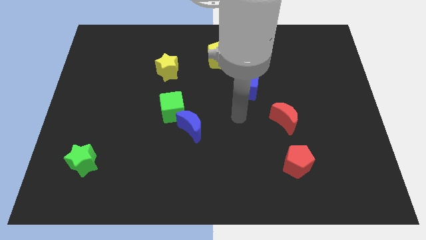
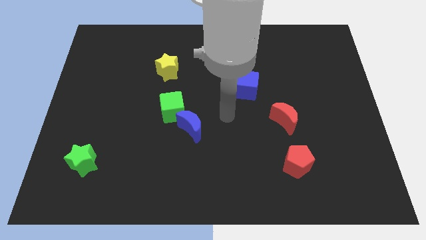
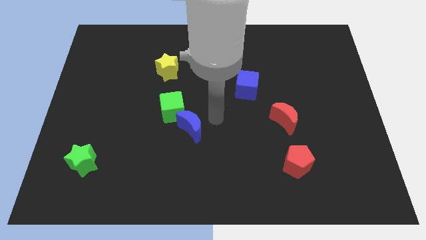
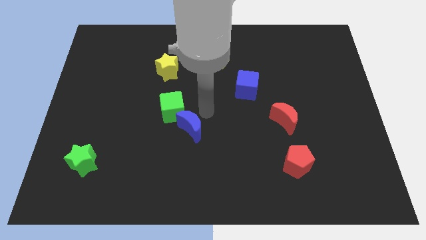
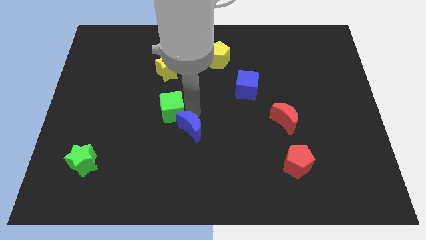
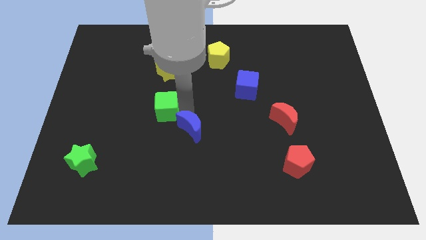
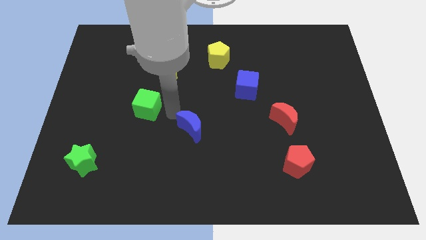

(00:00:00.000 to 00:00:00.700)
move the blue moon away from the green cube

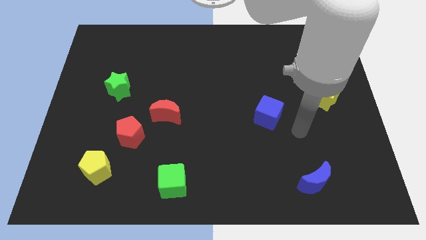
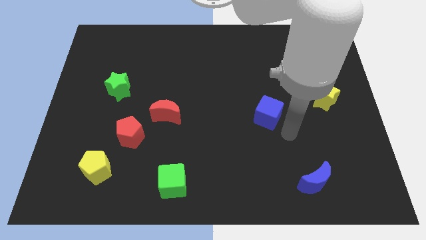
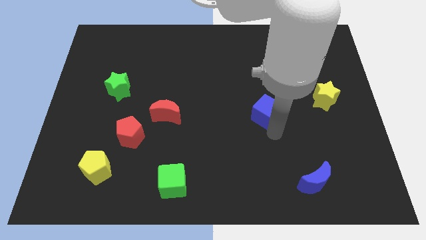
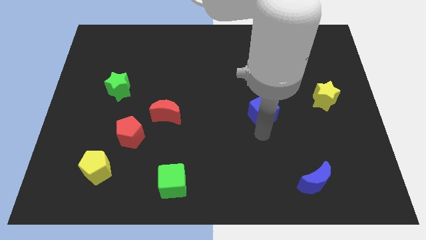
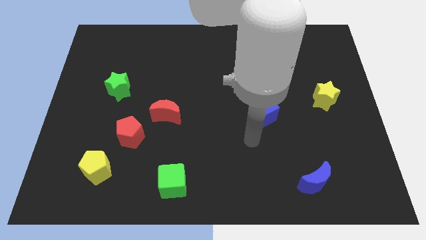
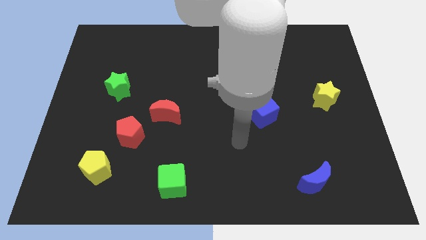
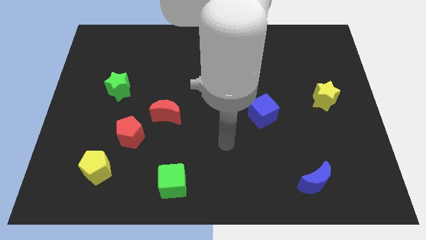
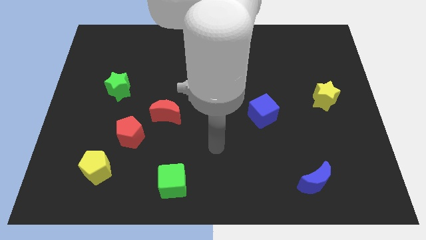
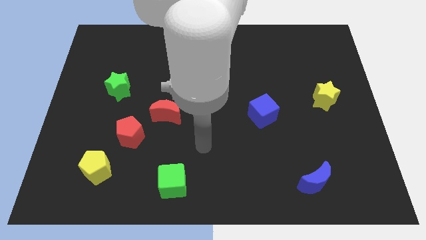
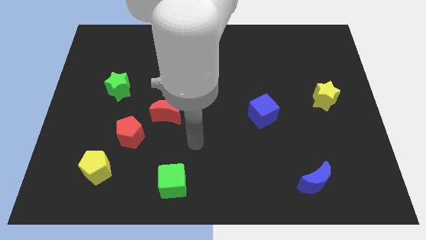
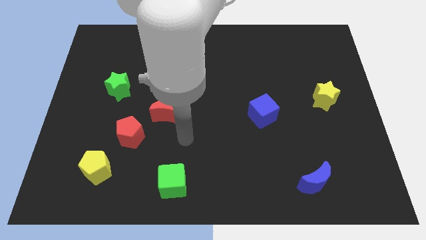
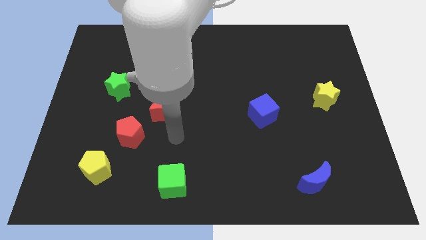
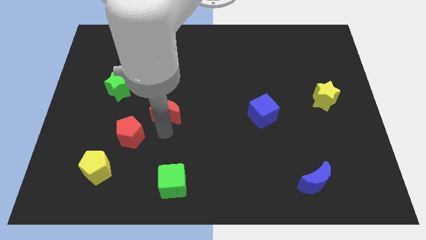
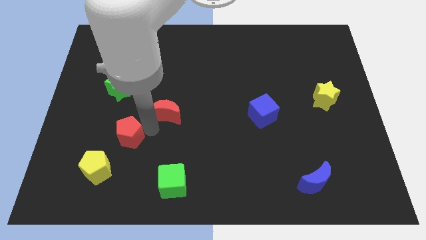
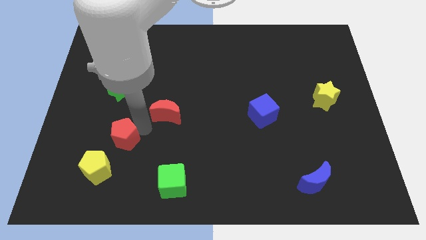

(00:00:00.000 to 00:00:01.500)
move the red moon away from the red pentagon

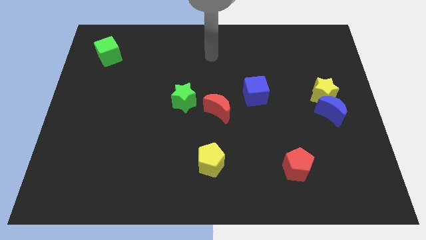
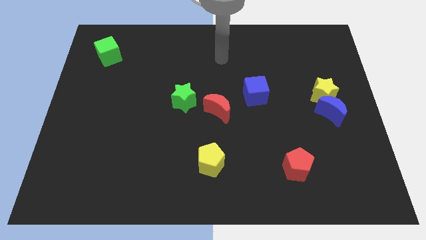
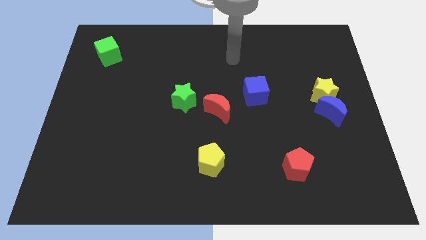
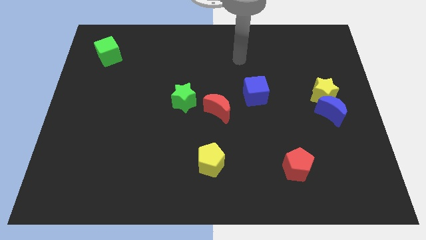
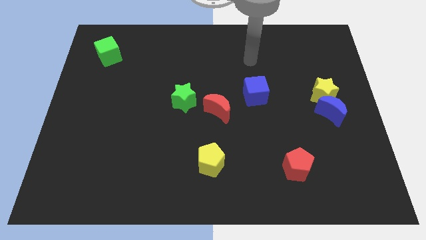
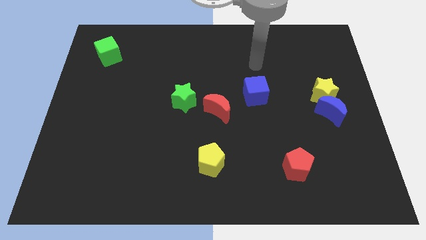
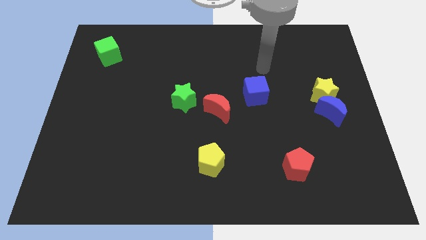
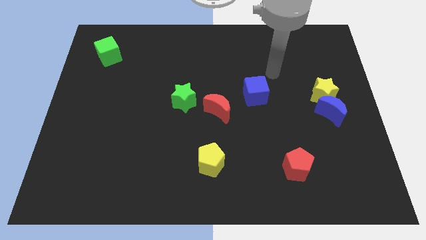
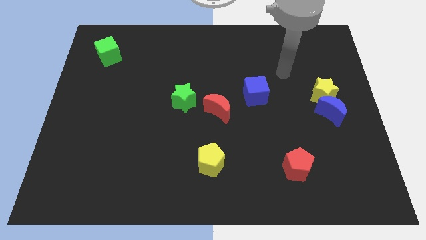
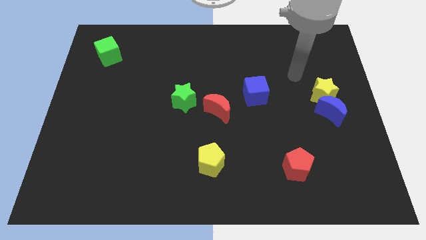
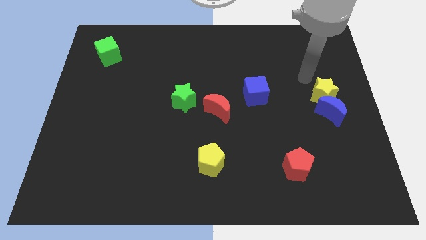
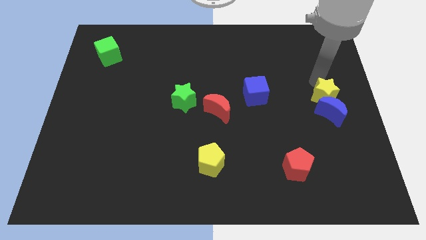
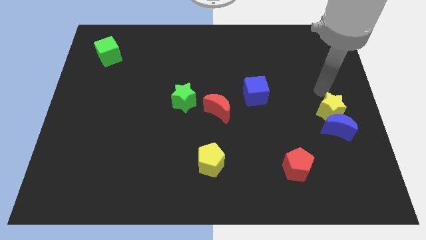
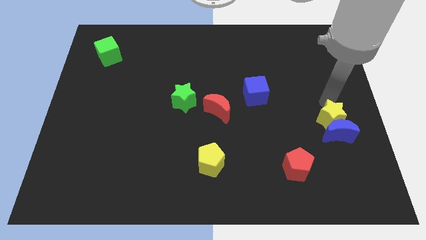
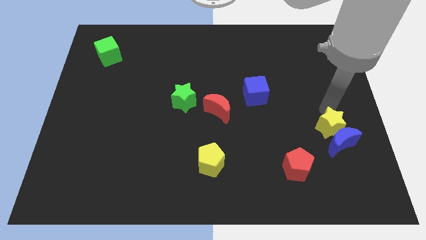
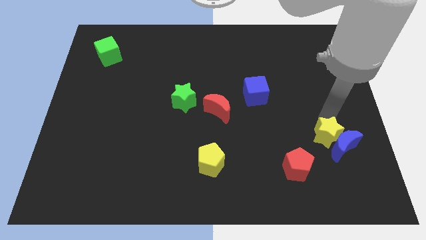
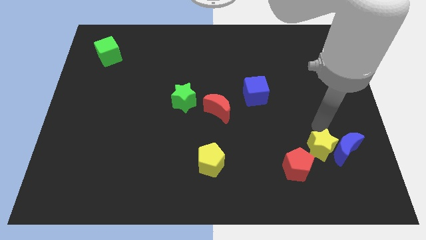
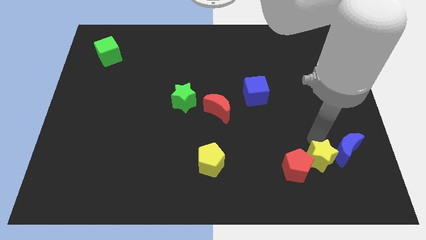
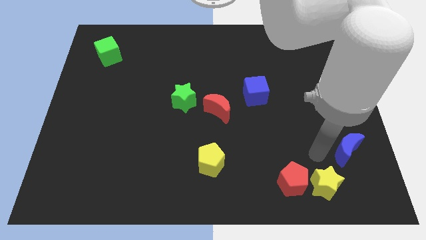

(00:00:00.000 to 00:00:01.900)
separate the blue moon from the yellow star

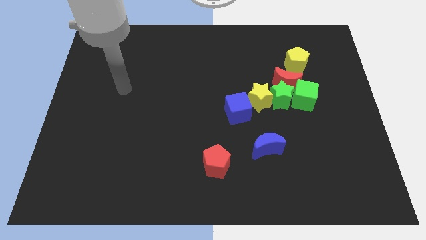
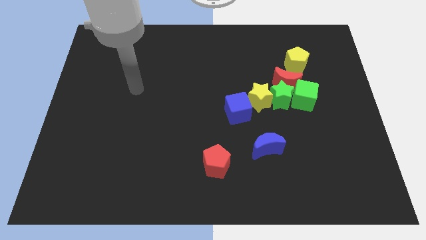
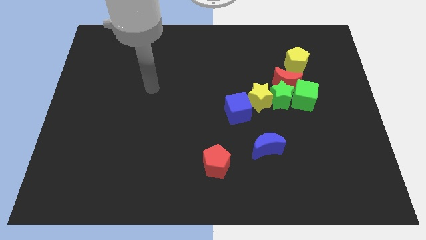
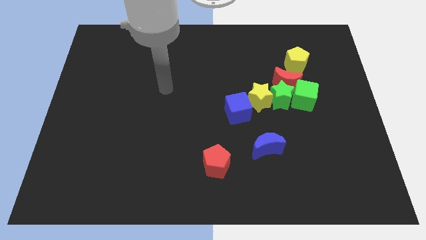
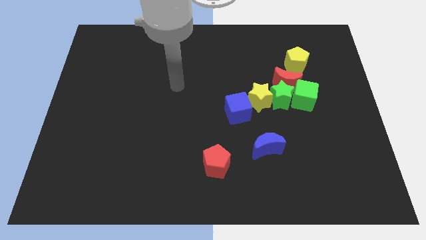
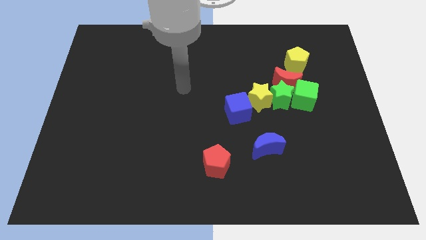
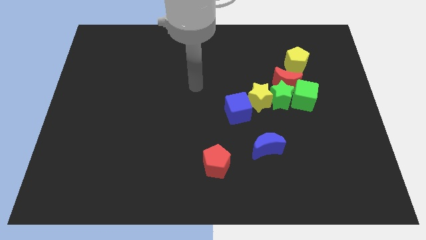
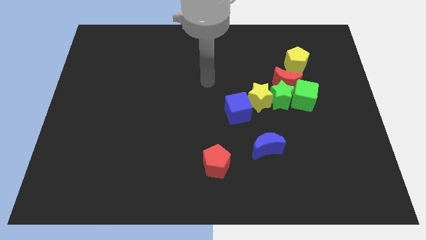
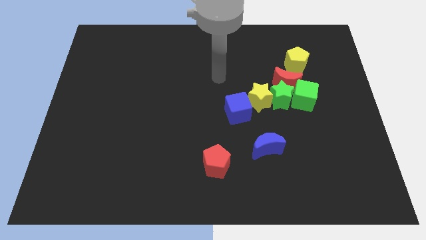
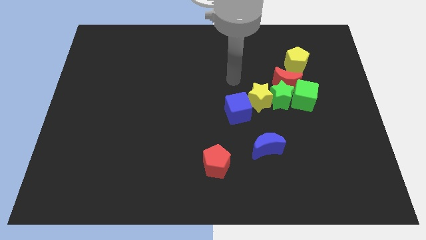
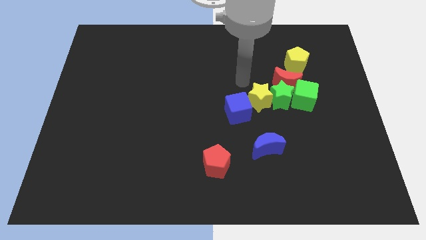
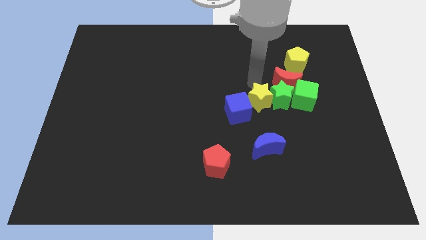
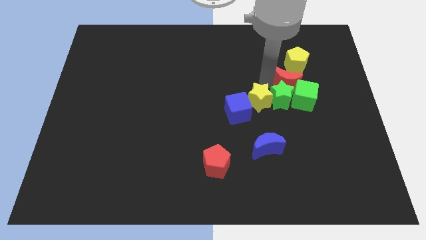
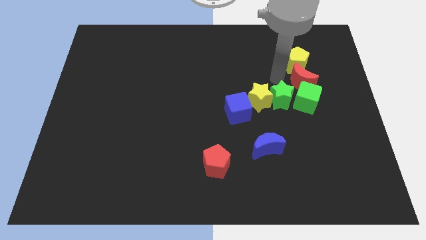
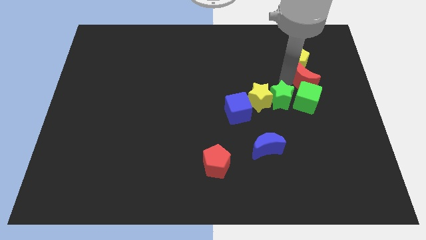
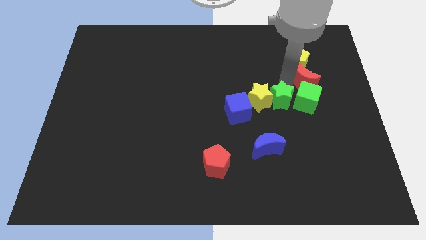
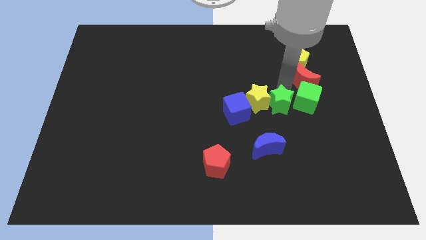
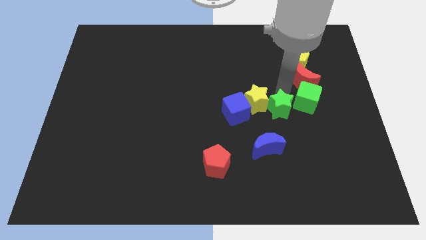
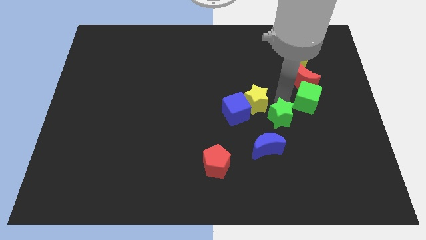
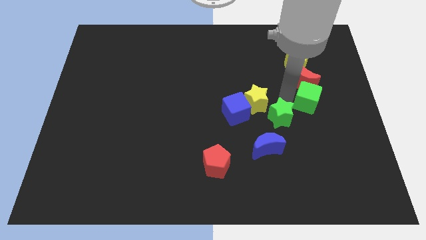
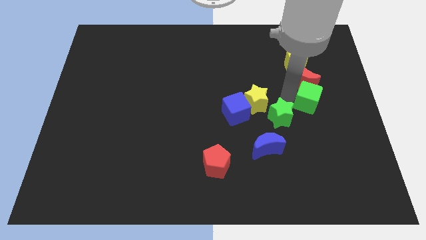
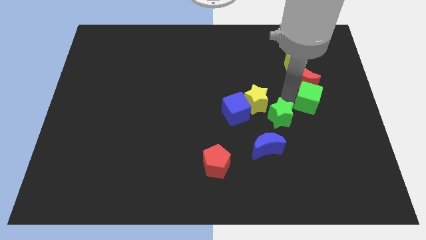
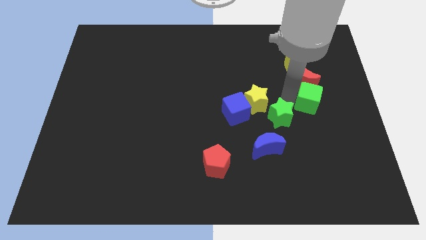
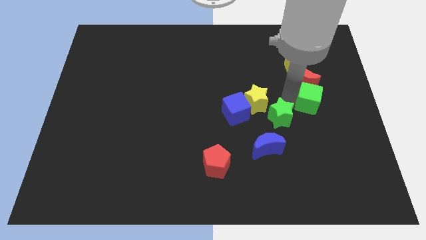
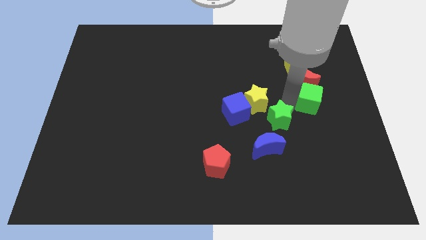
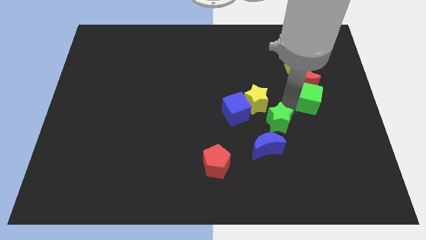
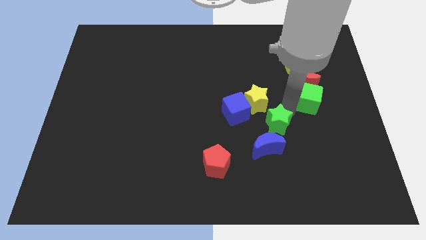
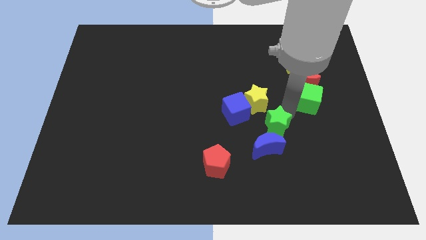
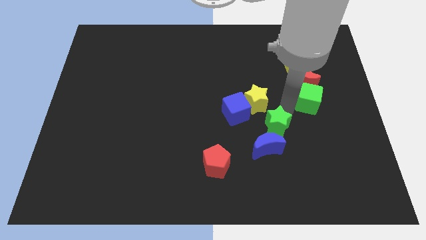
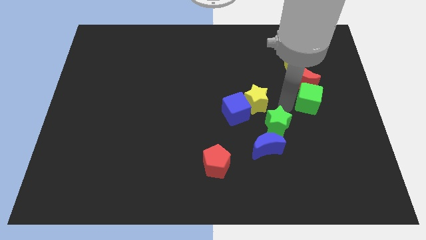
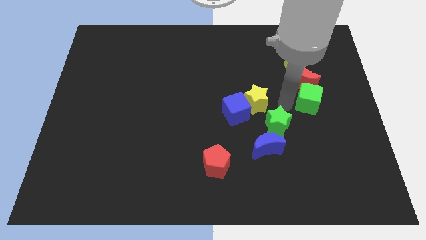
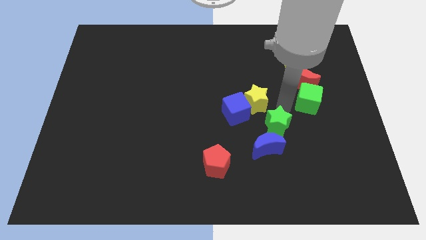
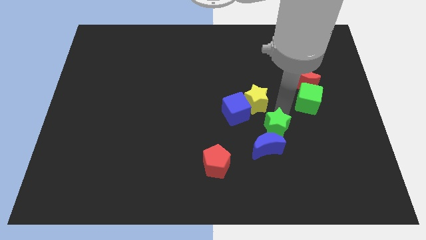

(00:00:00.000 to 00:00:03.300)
pull the green star apart from the yellow star, red moon, and green cube

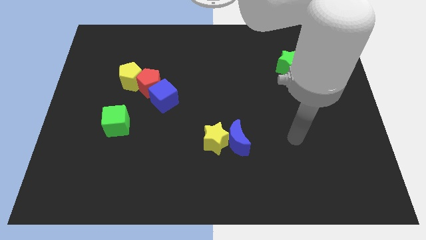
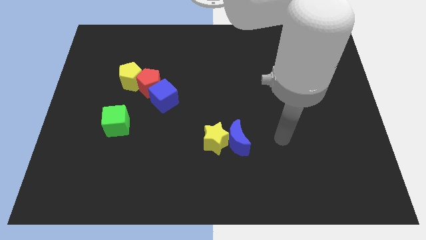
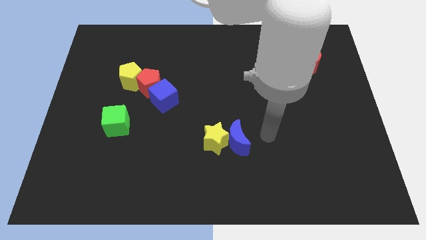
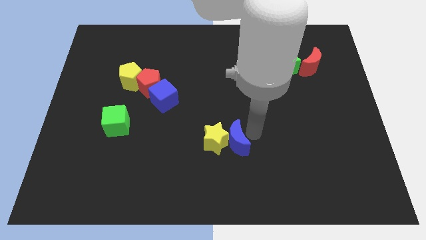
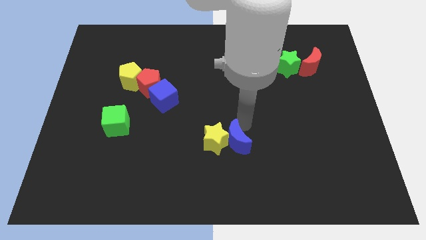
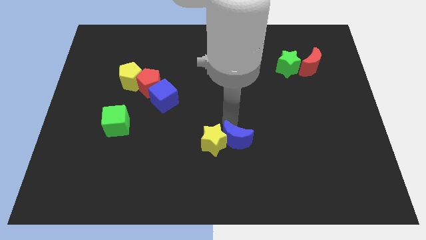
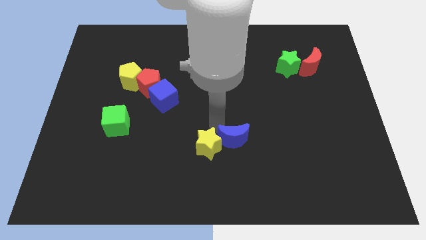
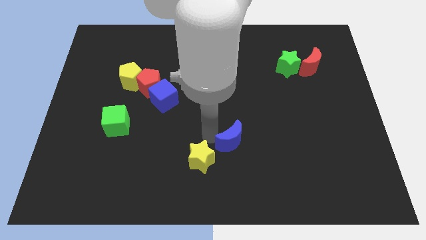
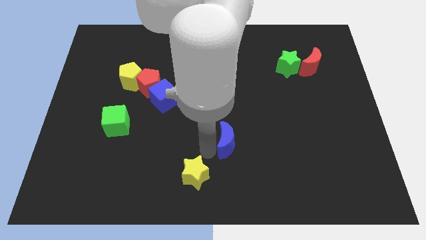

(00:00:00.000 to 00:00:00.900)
move the blue moon away from the yellow star

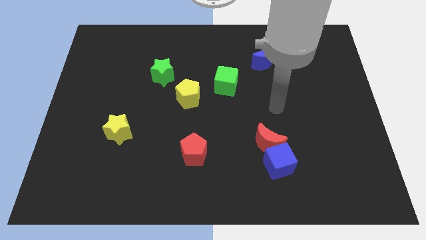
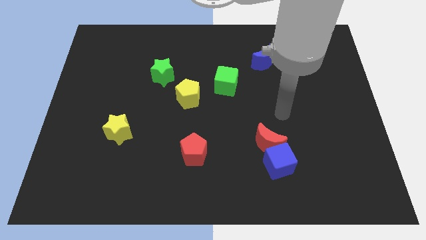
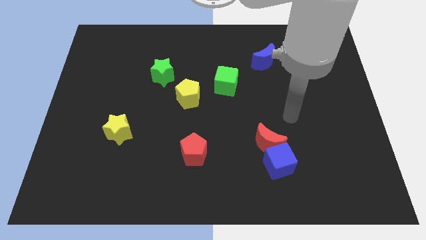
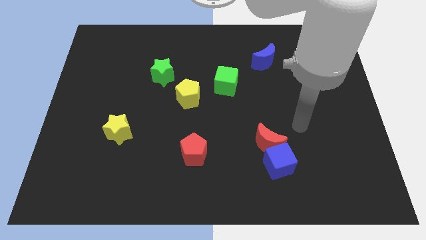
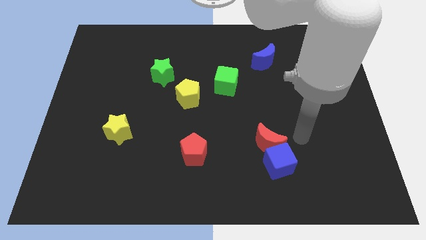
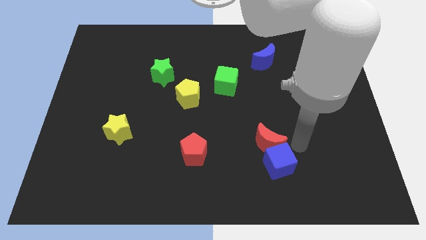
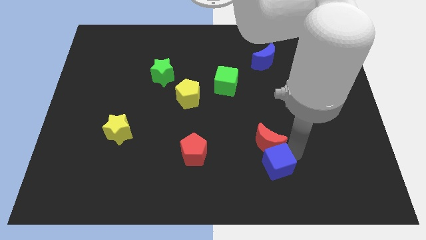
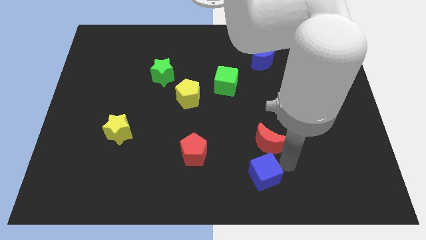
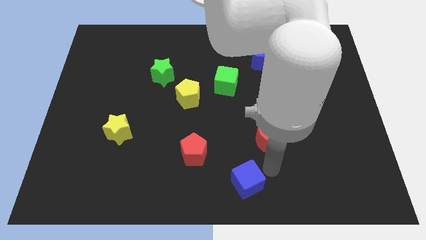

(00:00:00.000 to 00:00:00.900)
separate the red moon from the blue cube
